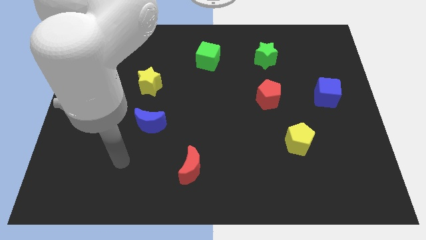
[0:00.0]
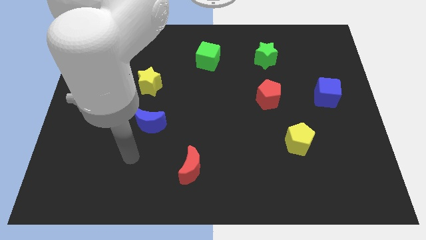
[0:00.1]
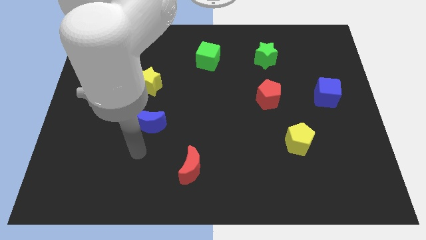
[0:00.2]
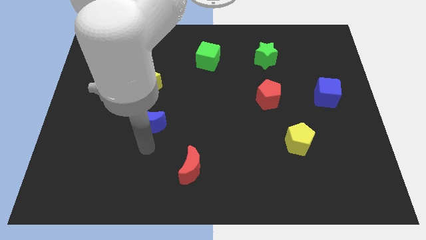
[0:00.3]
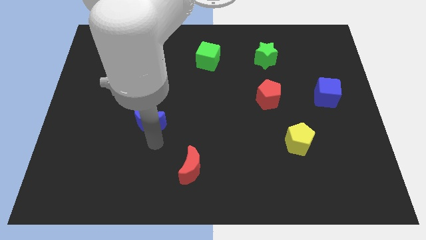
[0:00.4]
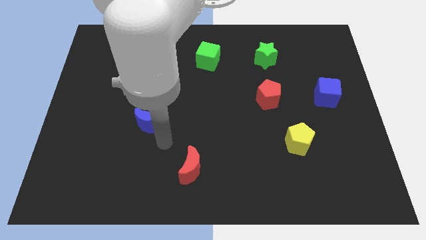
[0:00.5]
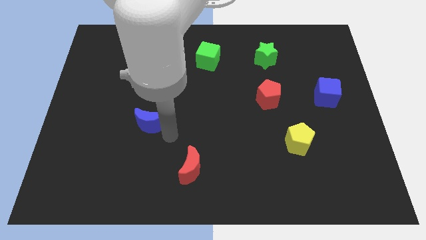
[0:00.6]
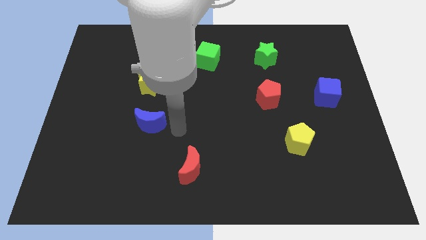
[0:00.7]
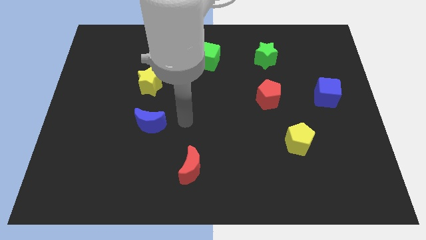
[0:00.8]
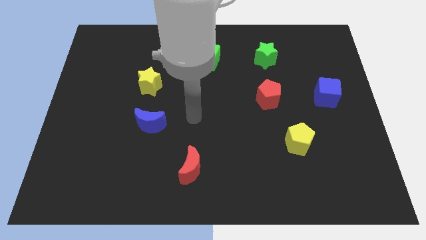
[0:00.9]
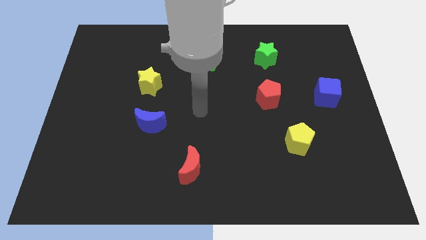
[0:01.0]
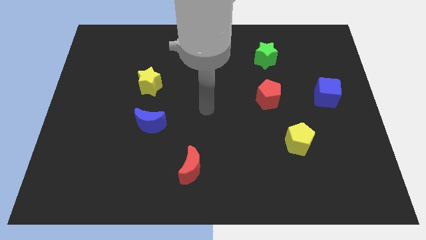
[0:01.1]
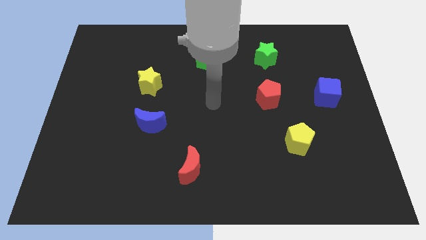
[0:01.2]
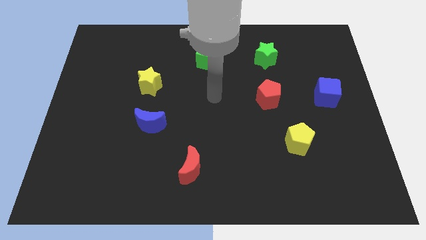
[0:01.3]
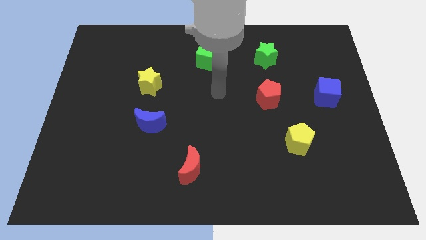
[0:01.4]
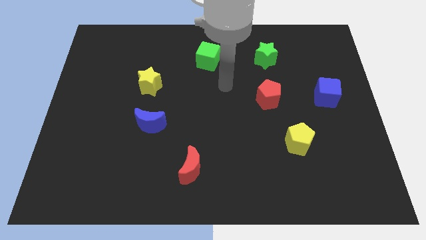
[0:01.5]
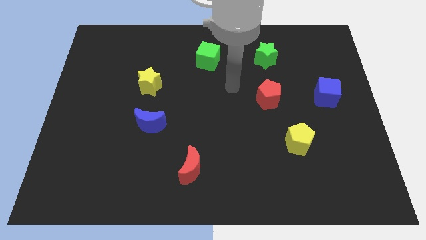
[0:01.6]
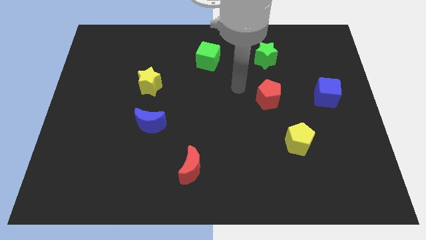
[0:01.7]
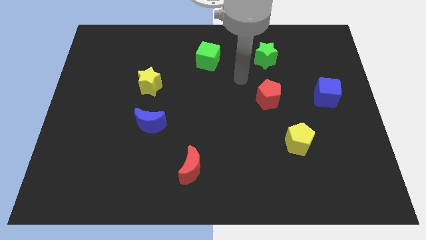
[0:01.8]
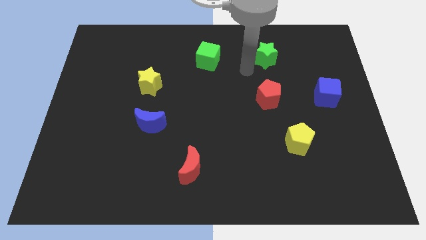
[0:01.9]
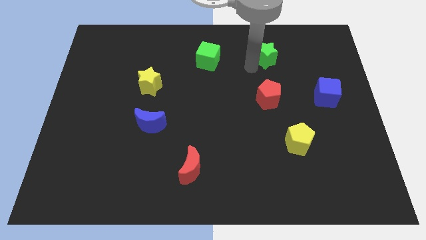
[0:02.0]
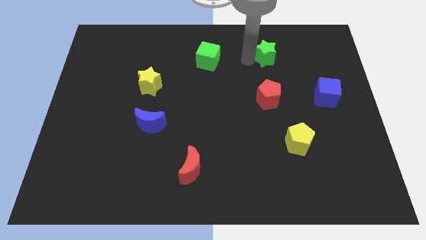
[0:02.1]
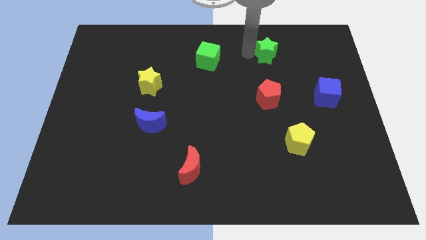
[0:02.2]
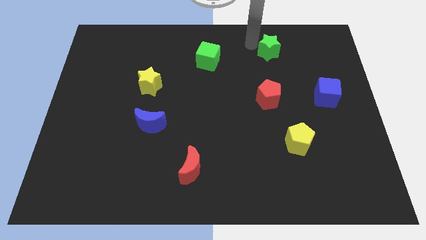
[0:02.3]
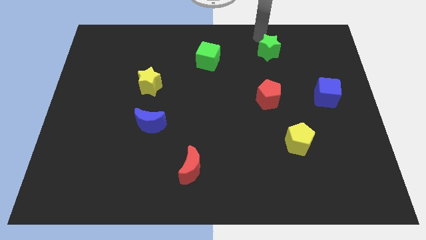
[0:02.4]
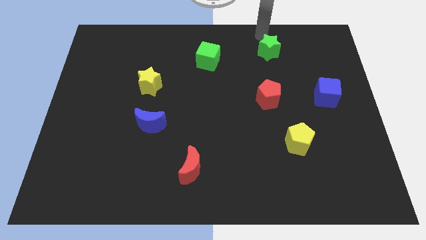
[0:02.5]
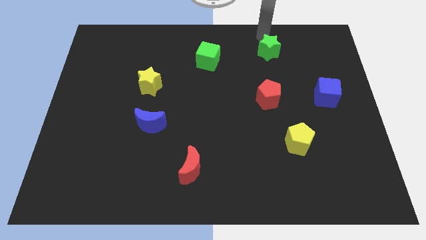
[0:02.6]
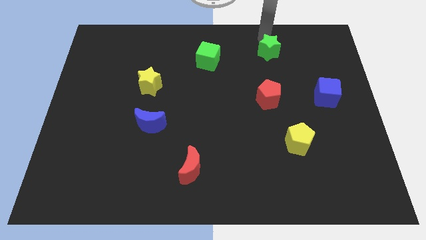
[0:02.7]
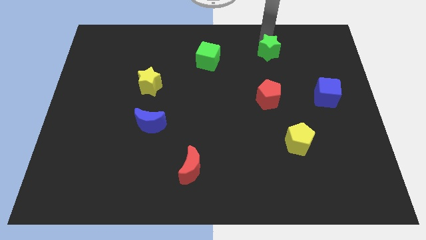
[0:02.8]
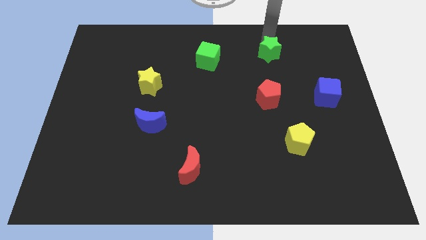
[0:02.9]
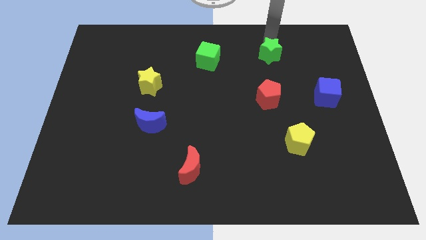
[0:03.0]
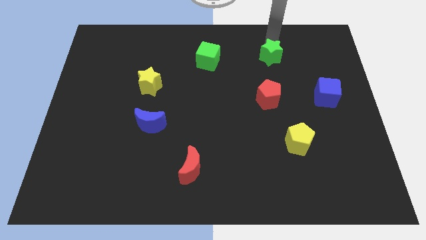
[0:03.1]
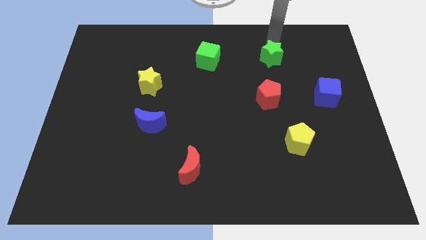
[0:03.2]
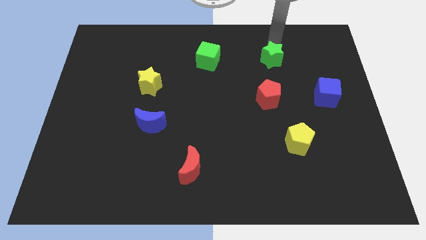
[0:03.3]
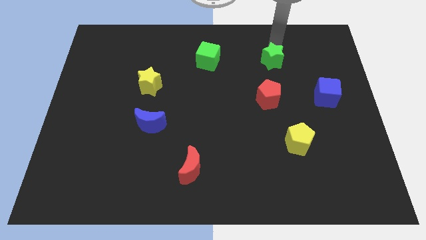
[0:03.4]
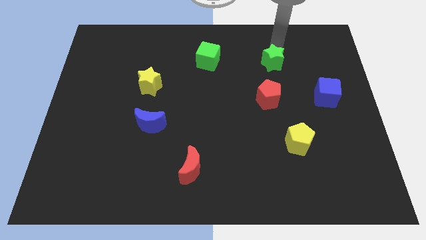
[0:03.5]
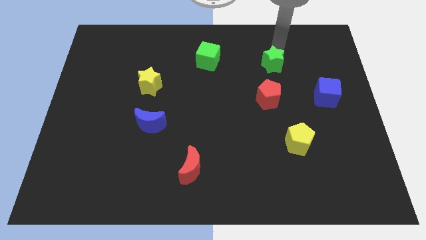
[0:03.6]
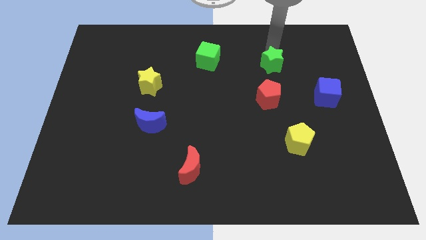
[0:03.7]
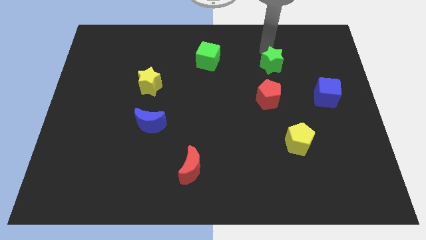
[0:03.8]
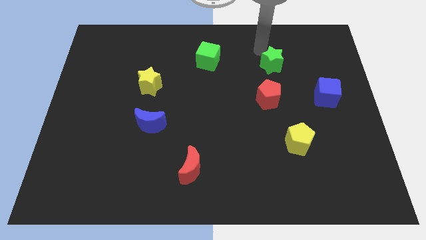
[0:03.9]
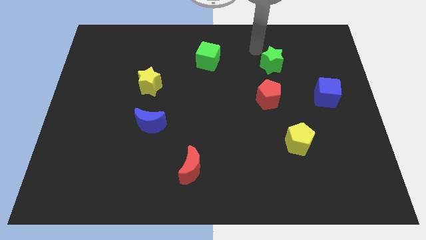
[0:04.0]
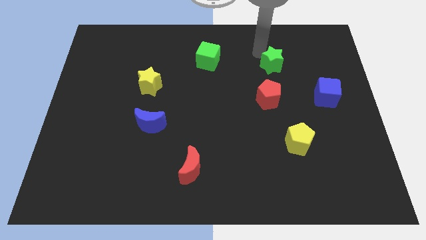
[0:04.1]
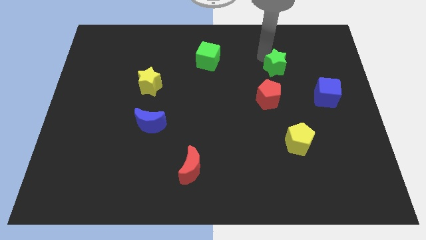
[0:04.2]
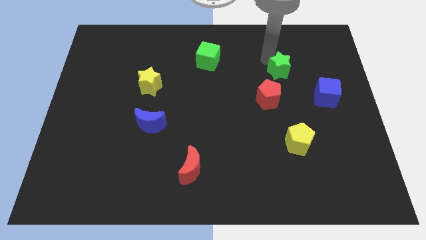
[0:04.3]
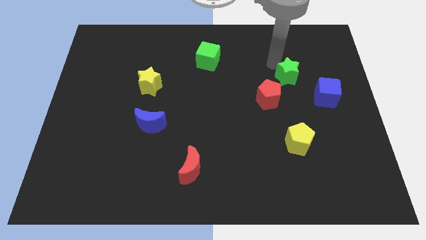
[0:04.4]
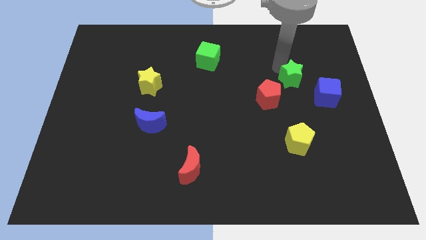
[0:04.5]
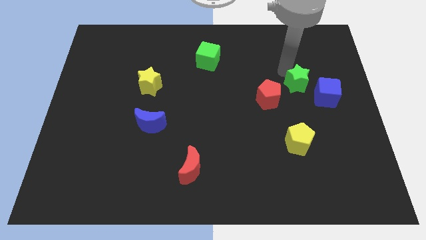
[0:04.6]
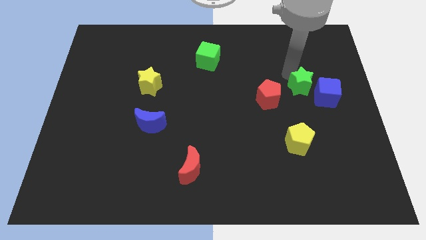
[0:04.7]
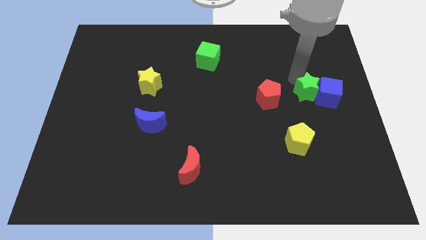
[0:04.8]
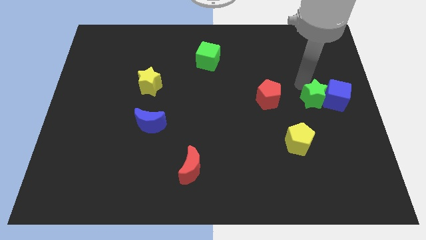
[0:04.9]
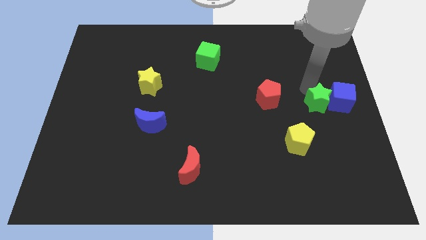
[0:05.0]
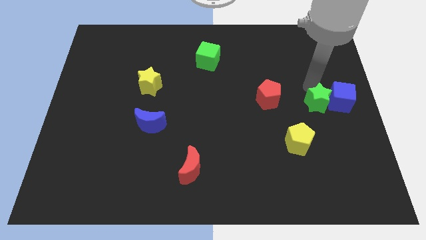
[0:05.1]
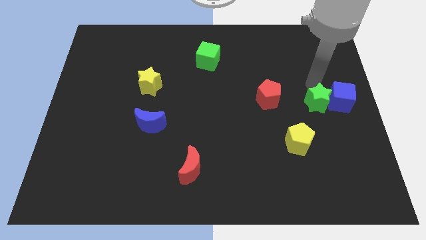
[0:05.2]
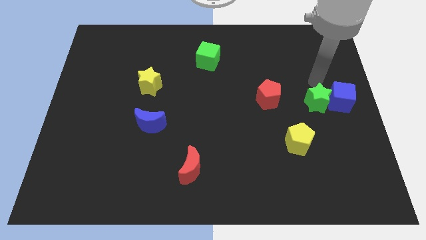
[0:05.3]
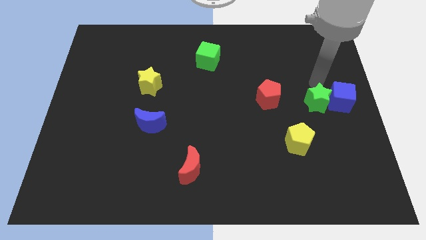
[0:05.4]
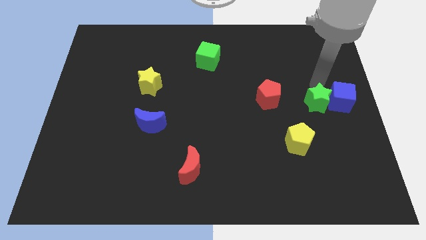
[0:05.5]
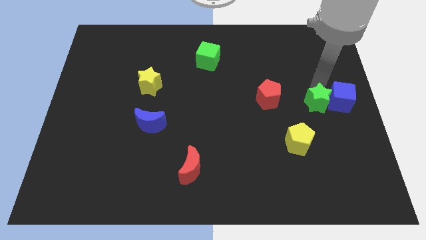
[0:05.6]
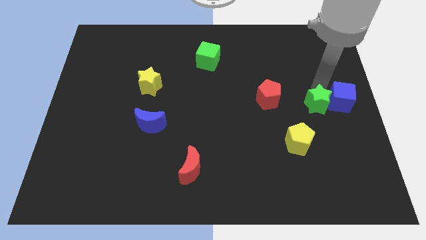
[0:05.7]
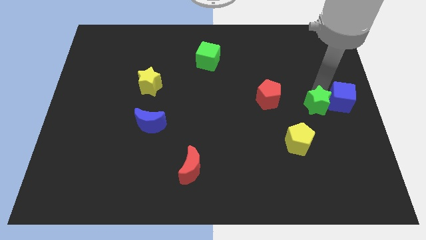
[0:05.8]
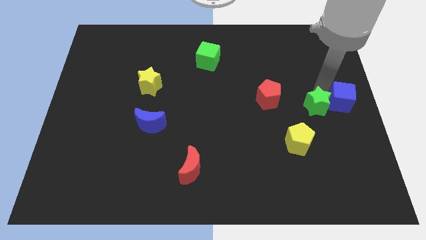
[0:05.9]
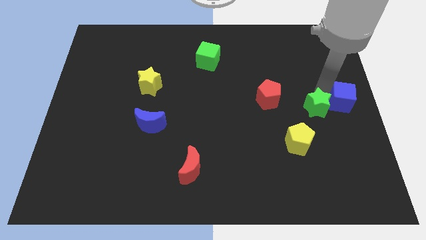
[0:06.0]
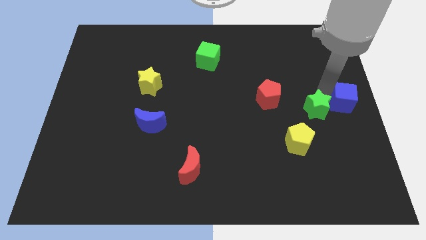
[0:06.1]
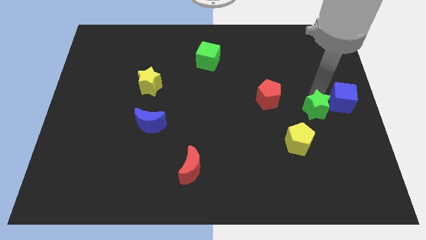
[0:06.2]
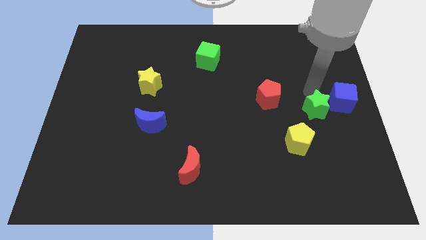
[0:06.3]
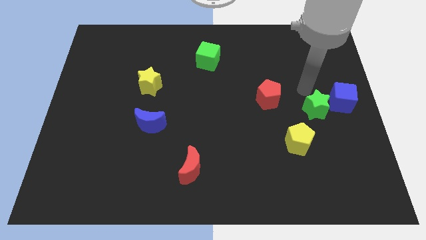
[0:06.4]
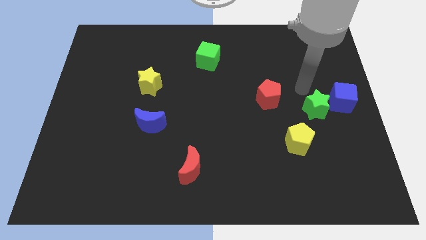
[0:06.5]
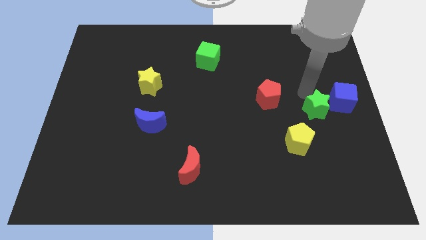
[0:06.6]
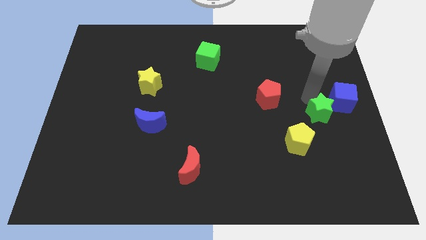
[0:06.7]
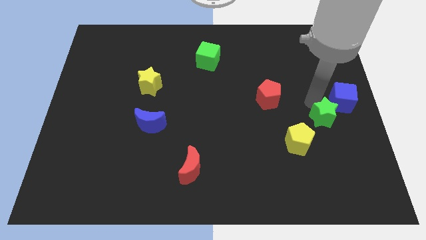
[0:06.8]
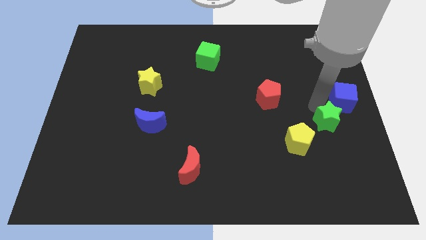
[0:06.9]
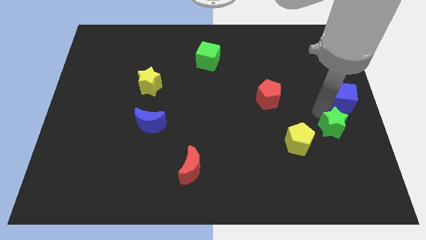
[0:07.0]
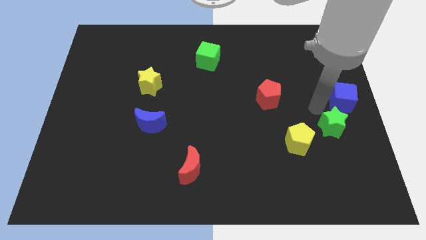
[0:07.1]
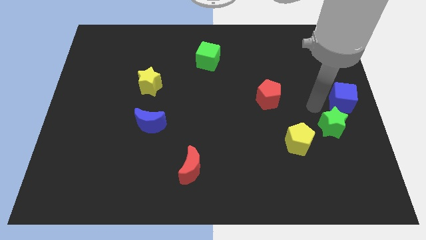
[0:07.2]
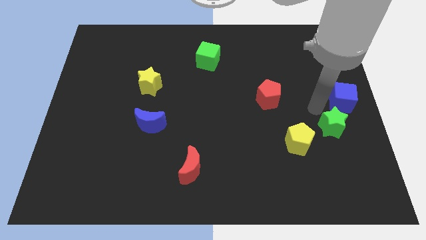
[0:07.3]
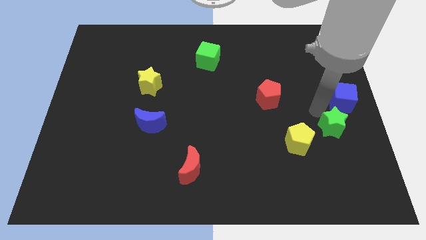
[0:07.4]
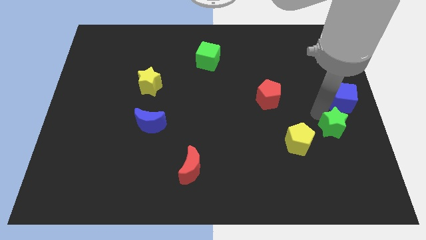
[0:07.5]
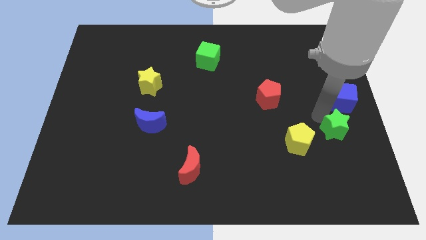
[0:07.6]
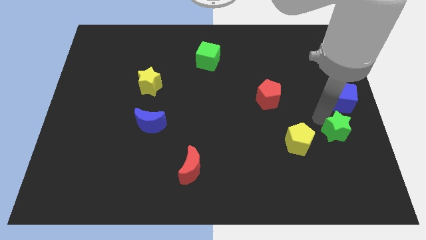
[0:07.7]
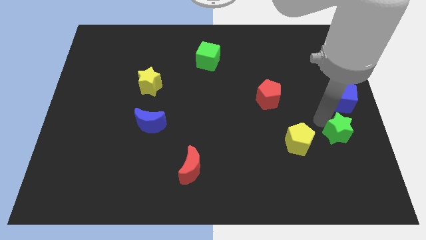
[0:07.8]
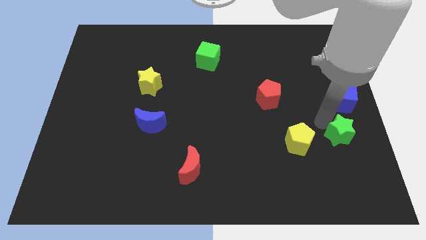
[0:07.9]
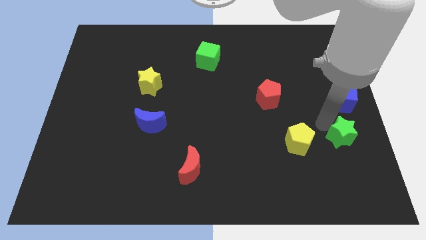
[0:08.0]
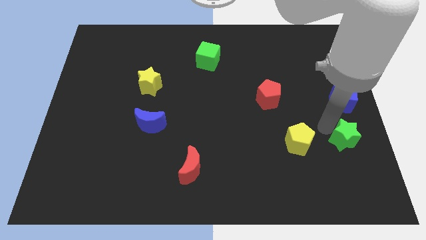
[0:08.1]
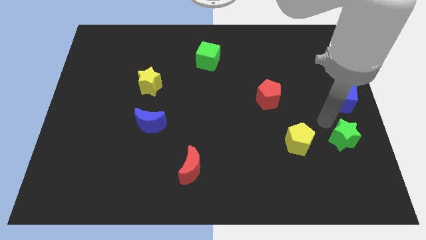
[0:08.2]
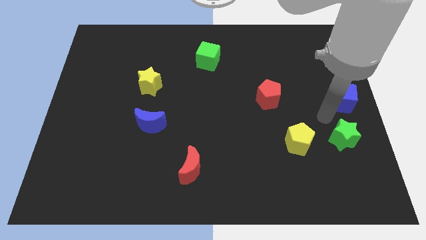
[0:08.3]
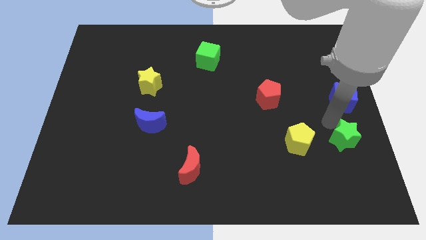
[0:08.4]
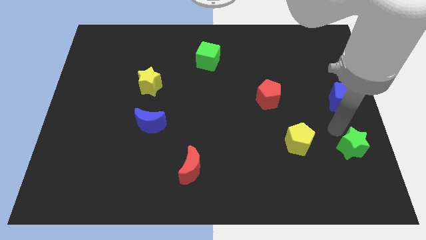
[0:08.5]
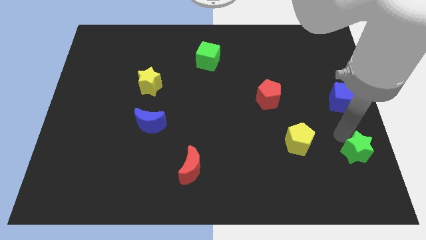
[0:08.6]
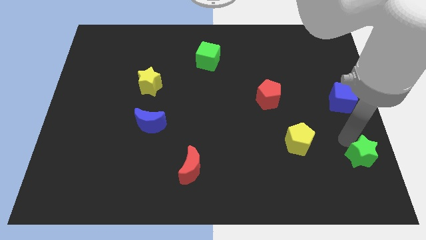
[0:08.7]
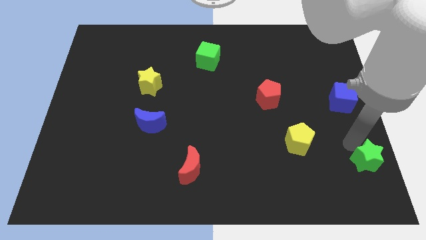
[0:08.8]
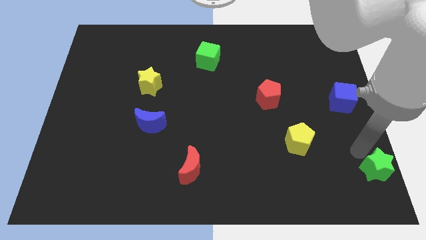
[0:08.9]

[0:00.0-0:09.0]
slide the green star to the bottom right of the board
